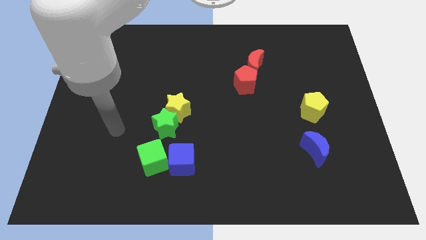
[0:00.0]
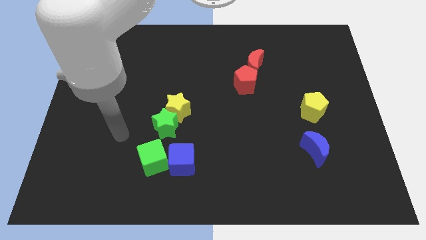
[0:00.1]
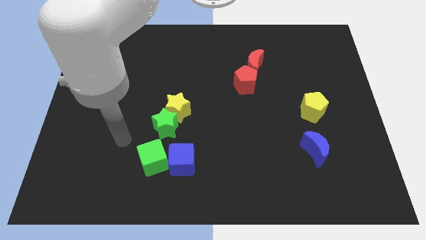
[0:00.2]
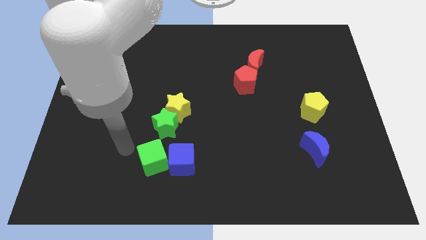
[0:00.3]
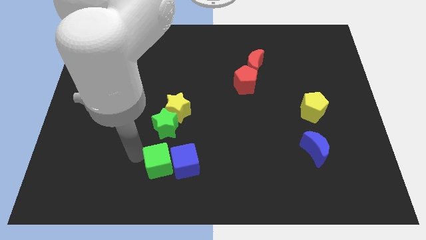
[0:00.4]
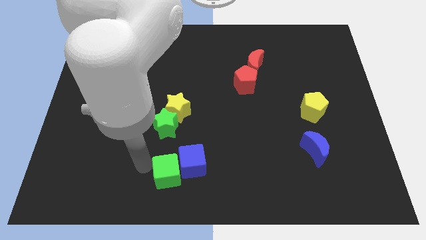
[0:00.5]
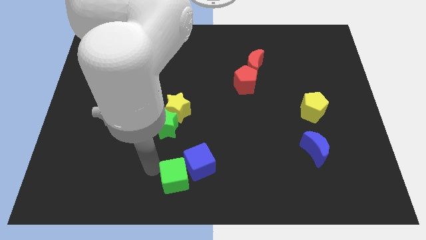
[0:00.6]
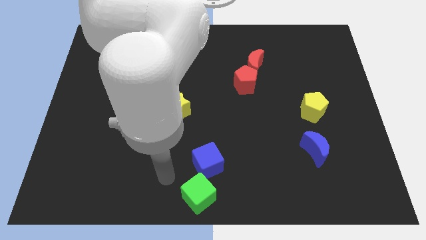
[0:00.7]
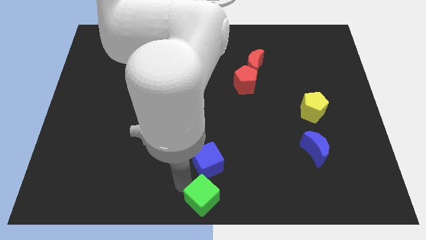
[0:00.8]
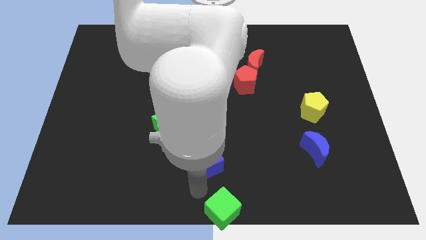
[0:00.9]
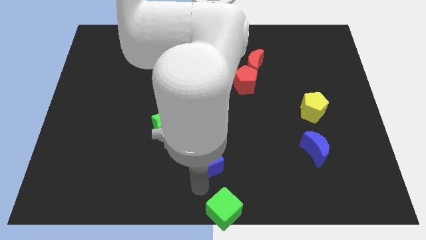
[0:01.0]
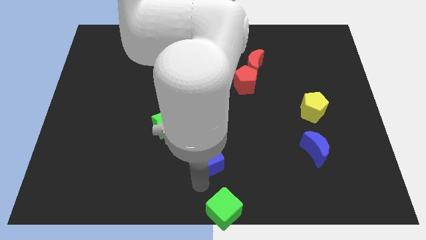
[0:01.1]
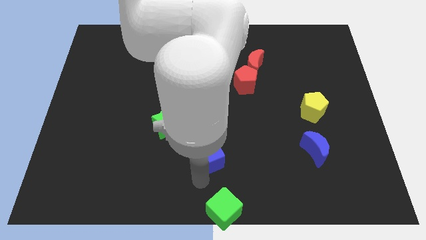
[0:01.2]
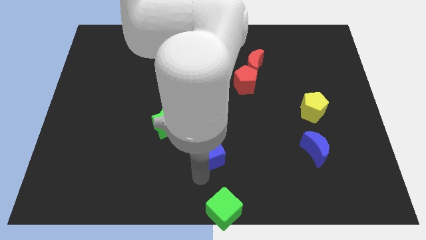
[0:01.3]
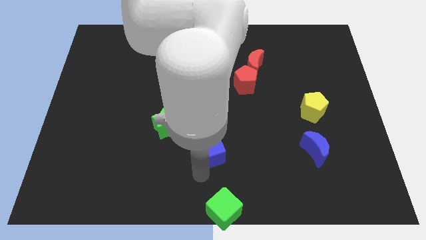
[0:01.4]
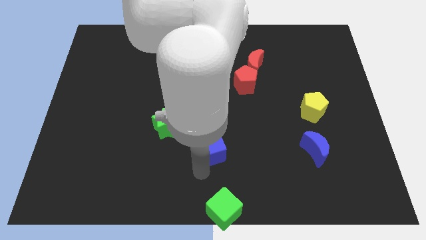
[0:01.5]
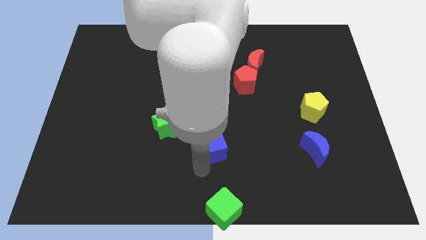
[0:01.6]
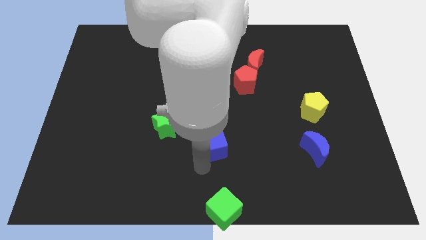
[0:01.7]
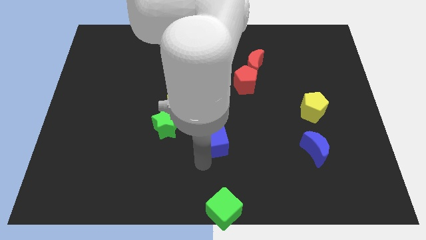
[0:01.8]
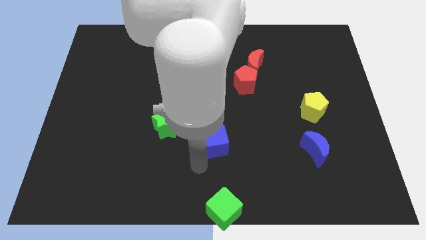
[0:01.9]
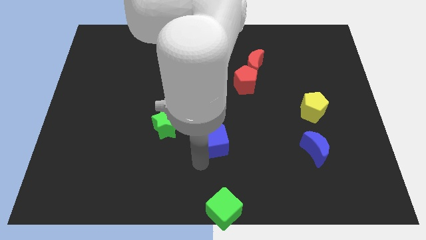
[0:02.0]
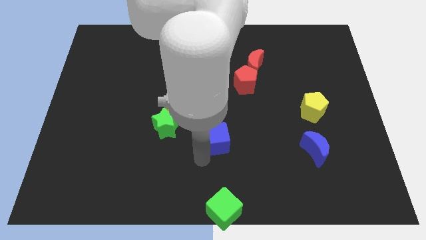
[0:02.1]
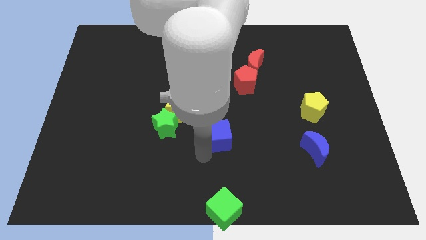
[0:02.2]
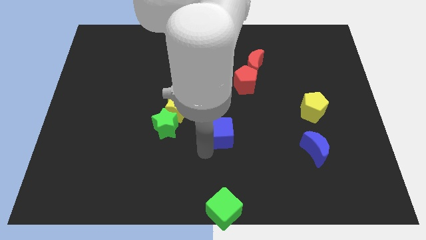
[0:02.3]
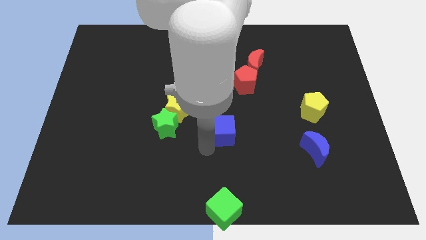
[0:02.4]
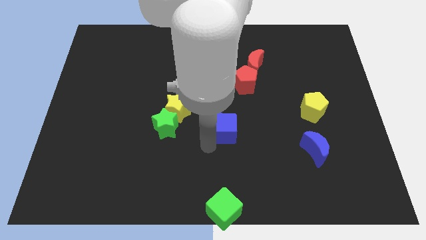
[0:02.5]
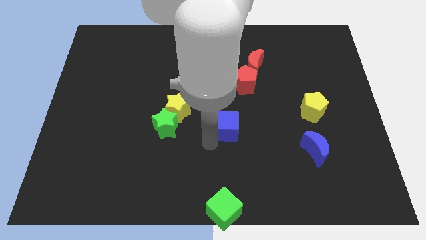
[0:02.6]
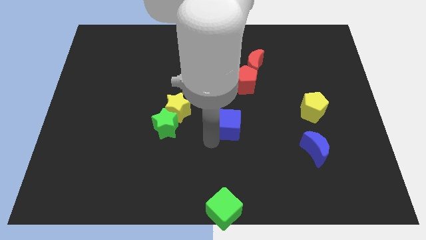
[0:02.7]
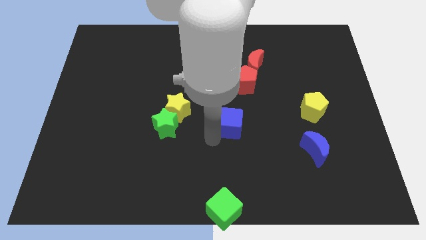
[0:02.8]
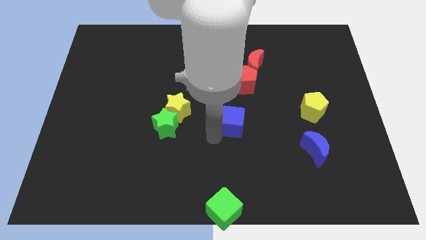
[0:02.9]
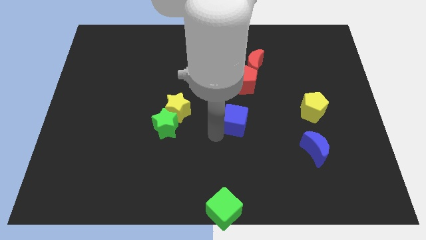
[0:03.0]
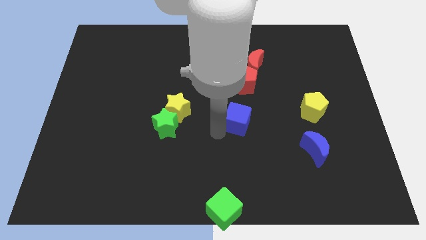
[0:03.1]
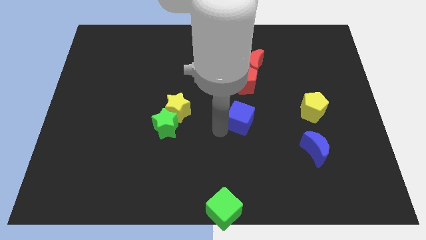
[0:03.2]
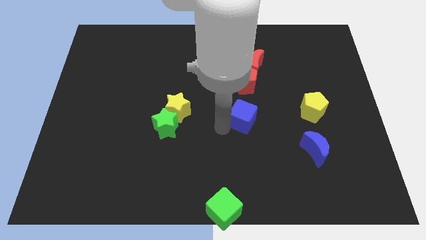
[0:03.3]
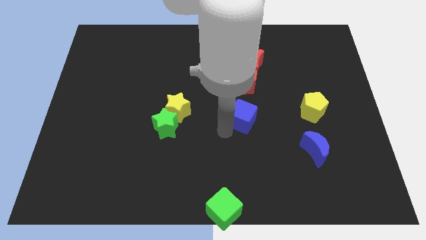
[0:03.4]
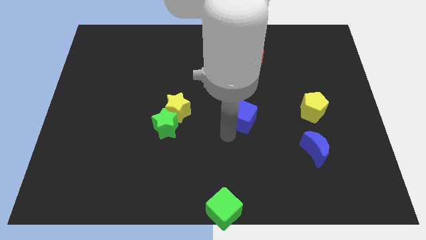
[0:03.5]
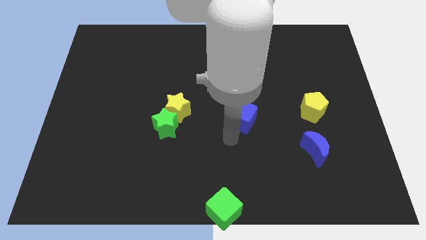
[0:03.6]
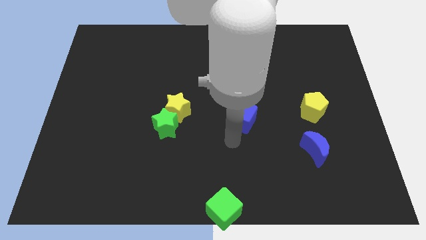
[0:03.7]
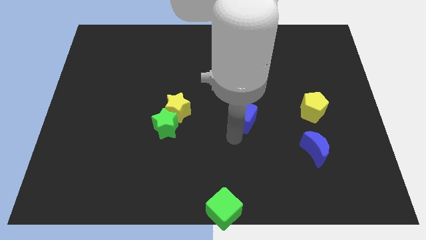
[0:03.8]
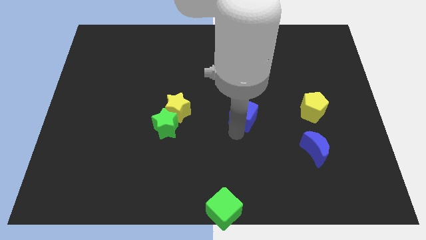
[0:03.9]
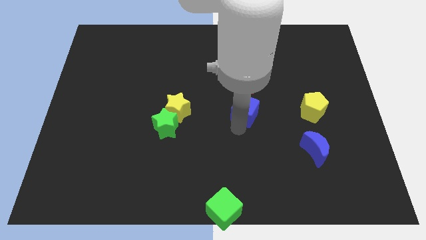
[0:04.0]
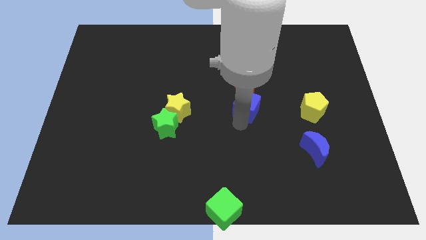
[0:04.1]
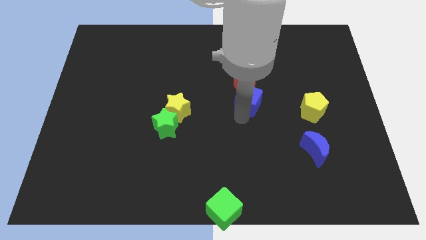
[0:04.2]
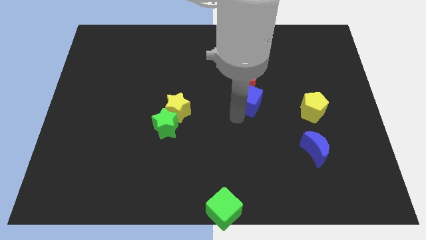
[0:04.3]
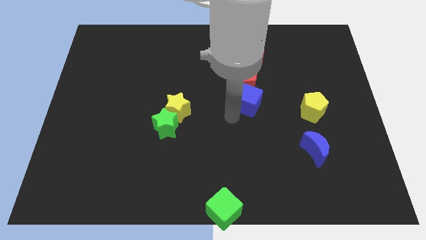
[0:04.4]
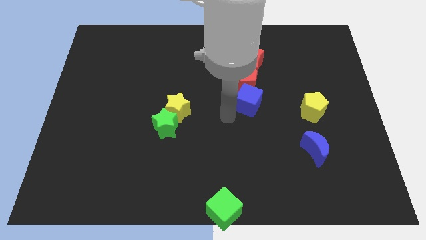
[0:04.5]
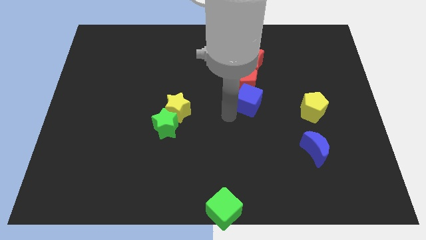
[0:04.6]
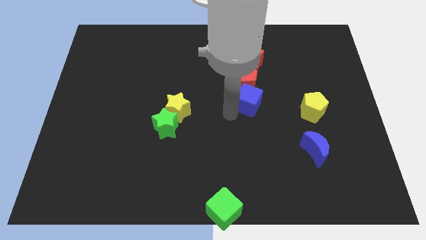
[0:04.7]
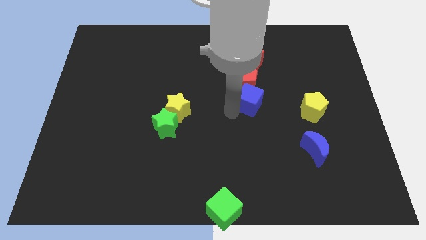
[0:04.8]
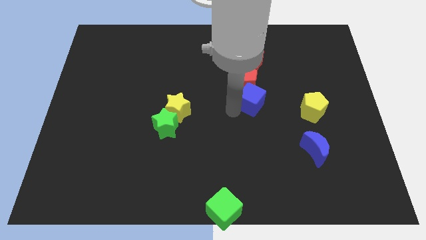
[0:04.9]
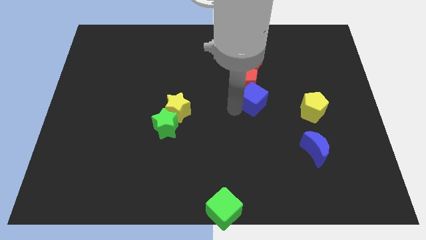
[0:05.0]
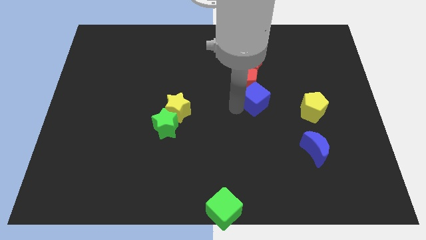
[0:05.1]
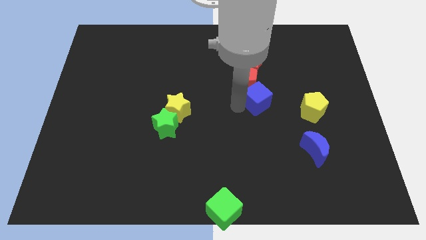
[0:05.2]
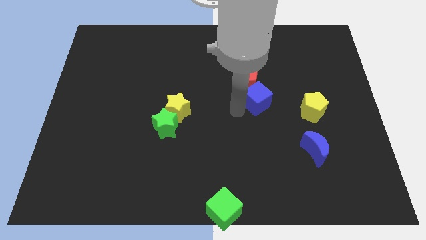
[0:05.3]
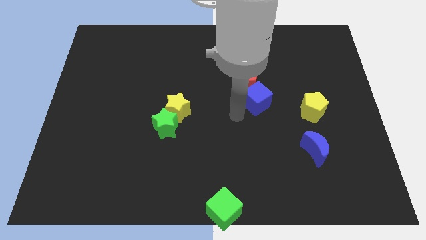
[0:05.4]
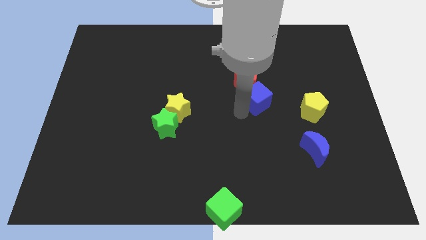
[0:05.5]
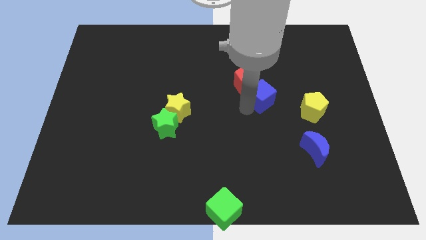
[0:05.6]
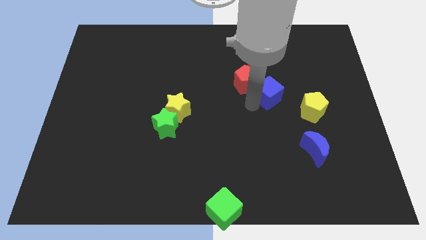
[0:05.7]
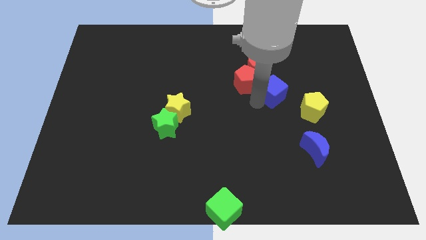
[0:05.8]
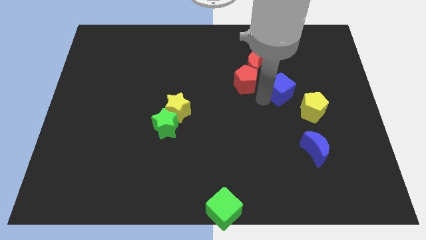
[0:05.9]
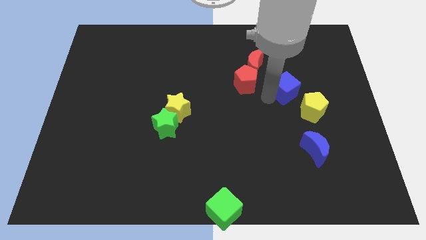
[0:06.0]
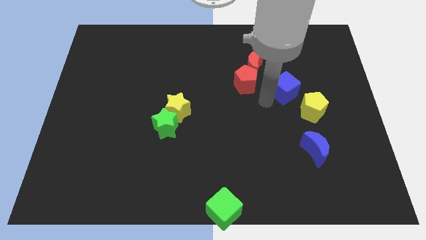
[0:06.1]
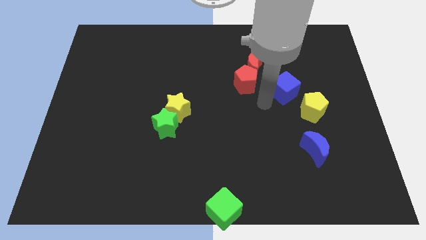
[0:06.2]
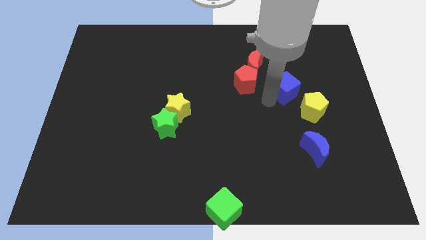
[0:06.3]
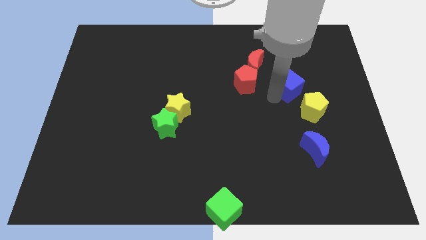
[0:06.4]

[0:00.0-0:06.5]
move the blue cube to the top side of the yellow pentagon

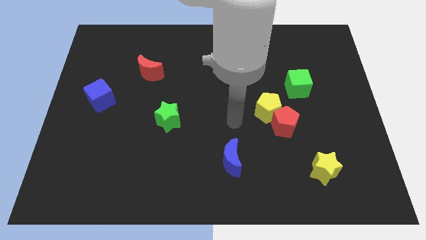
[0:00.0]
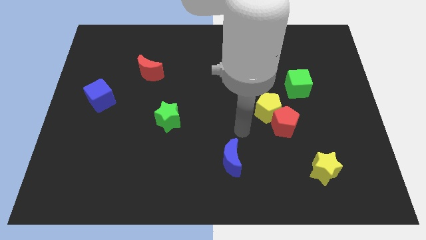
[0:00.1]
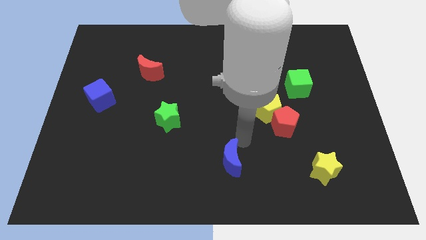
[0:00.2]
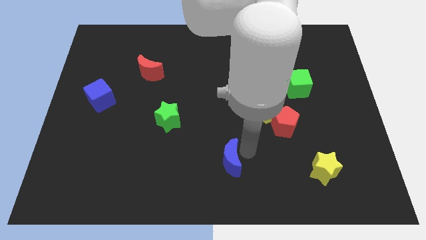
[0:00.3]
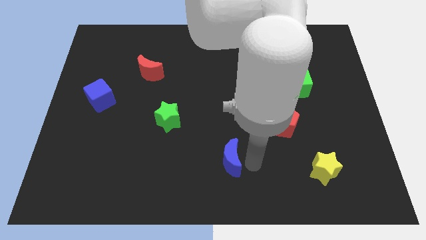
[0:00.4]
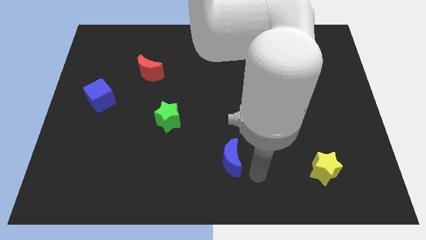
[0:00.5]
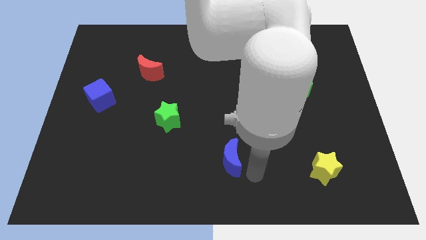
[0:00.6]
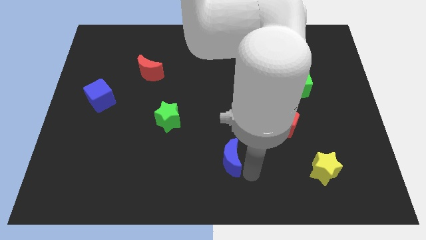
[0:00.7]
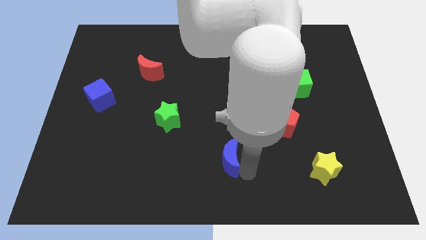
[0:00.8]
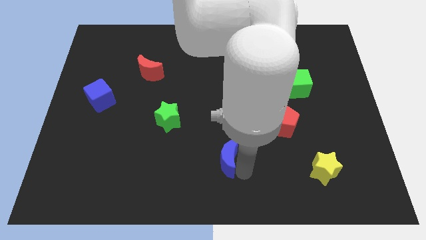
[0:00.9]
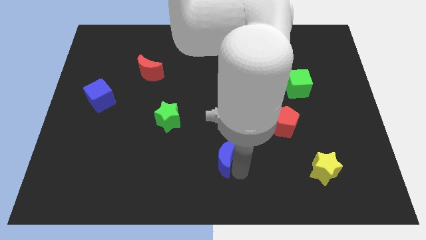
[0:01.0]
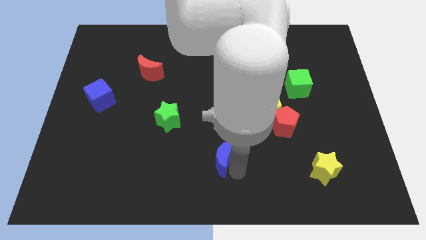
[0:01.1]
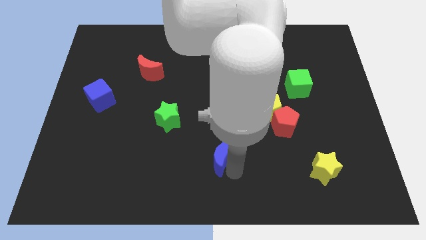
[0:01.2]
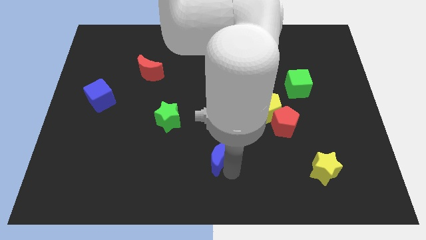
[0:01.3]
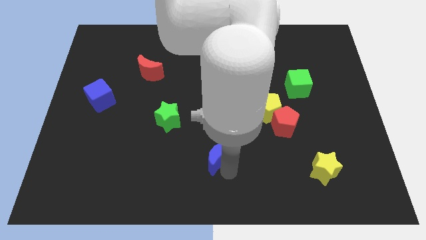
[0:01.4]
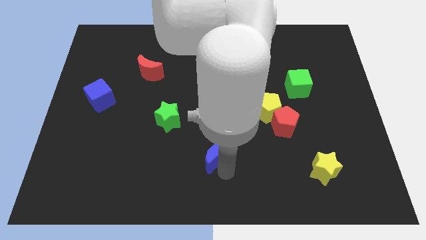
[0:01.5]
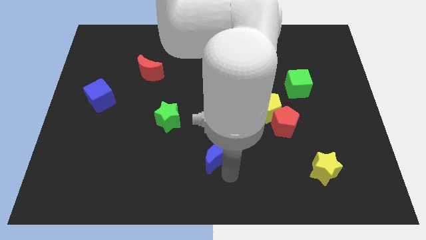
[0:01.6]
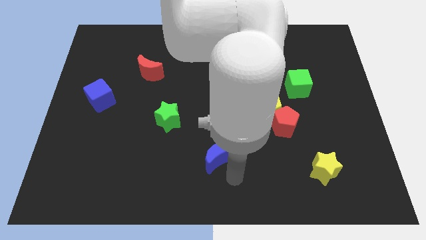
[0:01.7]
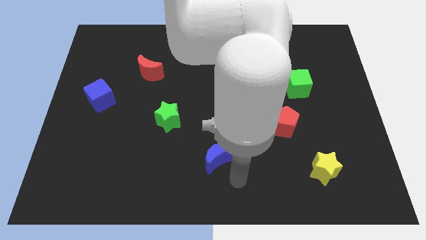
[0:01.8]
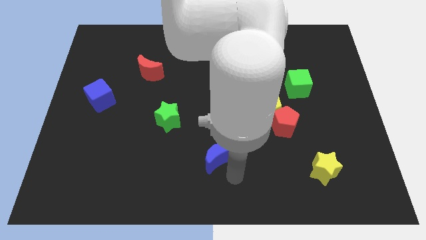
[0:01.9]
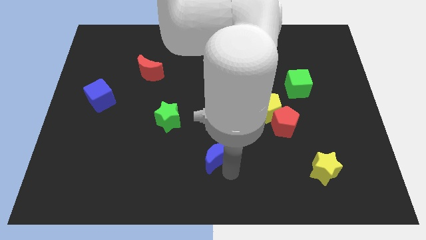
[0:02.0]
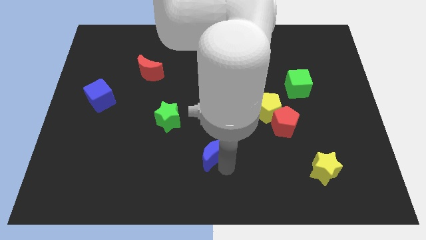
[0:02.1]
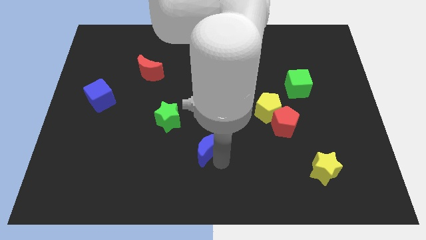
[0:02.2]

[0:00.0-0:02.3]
slide the blue moon to the bottom right side of the green star
